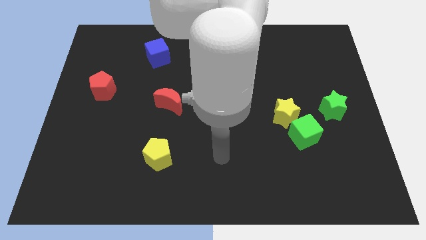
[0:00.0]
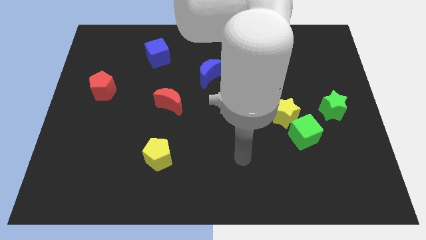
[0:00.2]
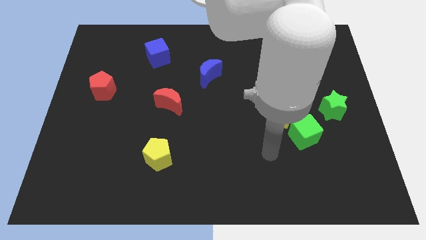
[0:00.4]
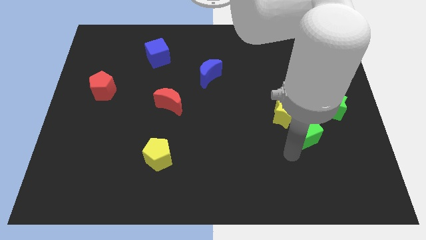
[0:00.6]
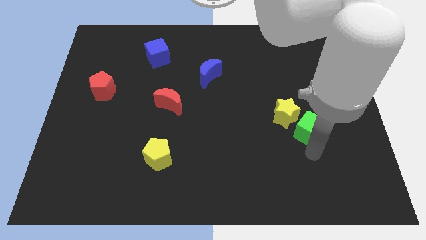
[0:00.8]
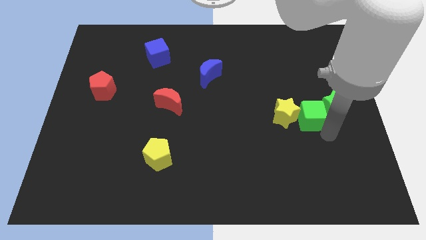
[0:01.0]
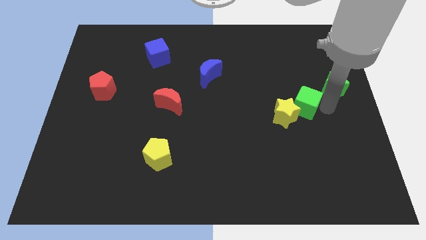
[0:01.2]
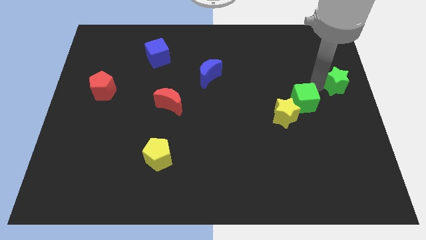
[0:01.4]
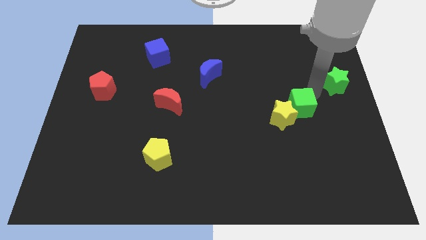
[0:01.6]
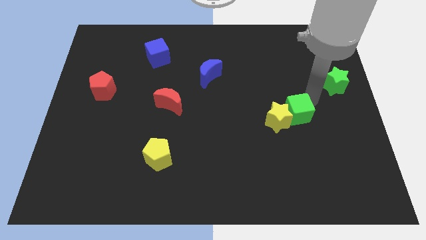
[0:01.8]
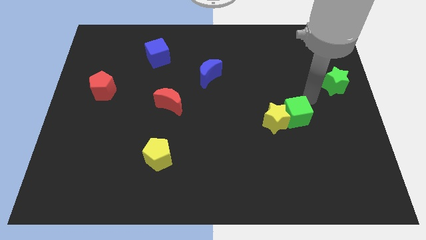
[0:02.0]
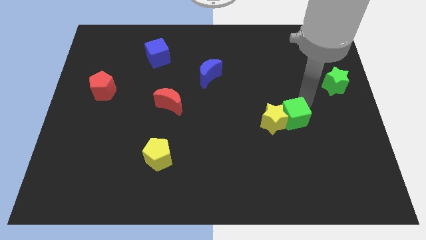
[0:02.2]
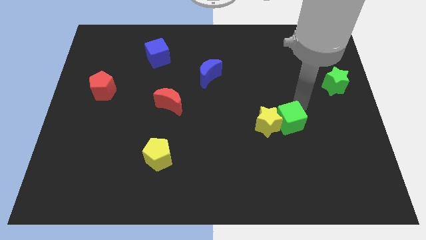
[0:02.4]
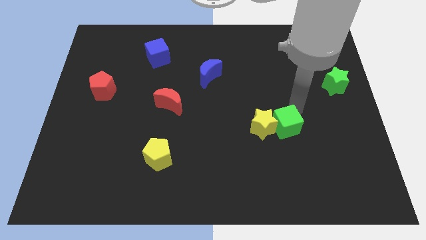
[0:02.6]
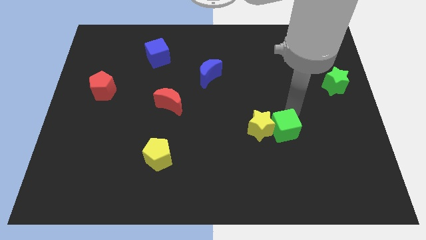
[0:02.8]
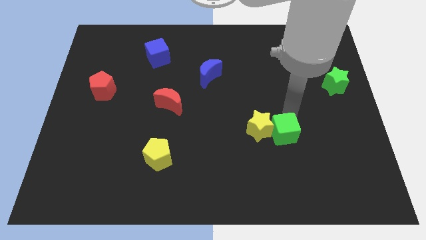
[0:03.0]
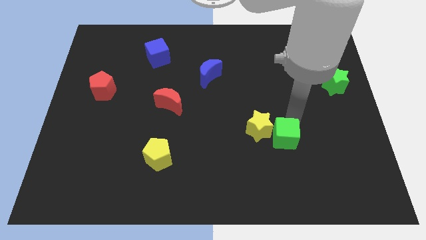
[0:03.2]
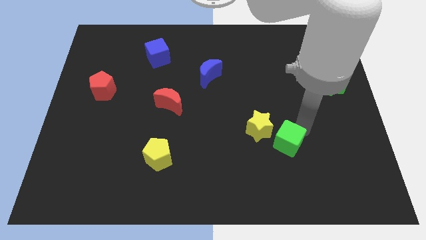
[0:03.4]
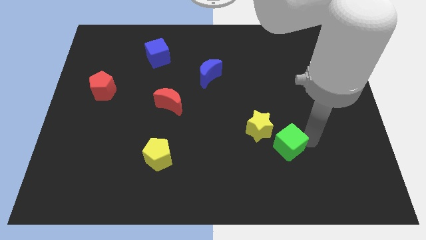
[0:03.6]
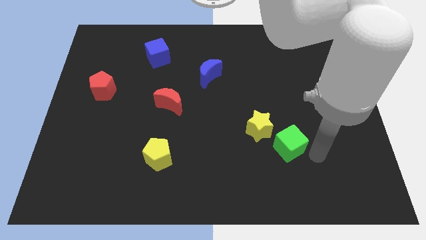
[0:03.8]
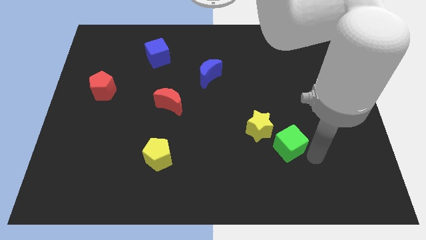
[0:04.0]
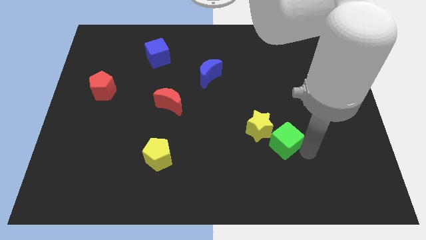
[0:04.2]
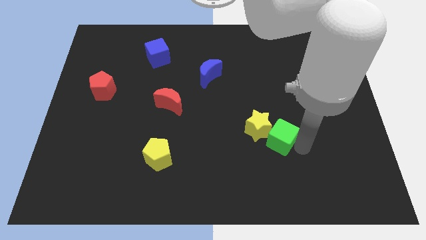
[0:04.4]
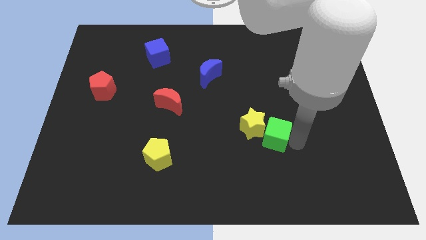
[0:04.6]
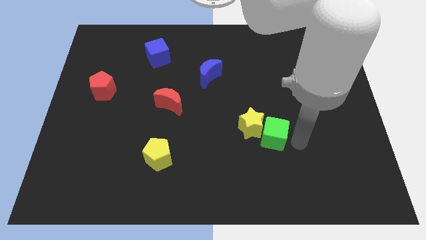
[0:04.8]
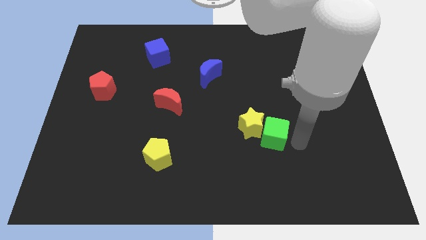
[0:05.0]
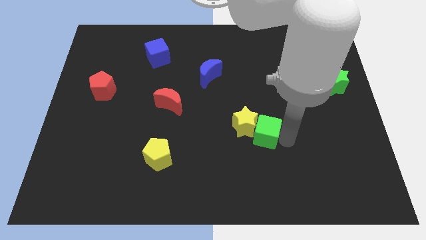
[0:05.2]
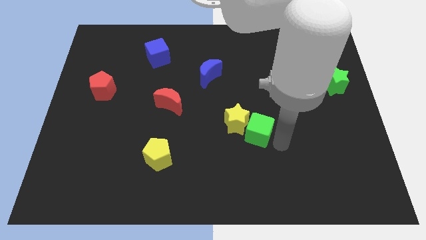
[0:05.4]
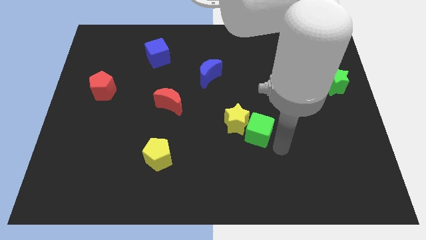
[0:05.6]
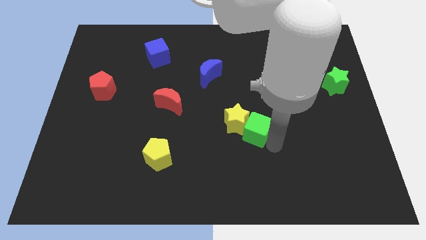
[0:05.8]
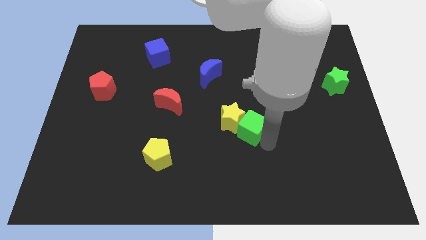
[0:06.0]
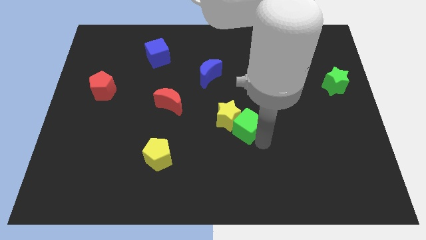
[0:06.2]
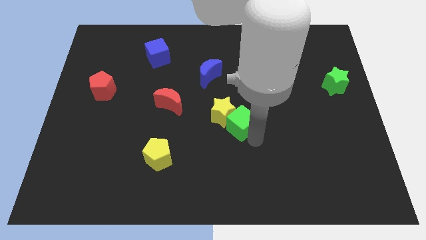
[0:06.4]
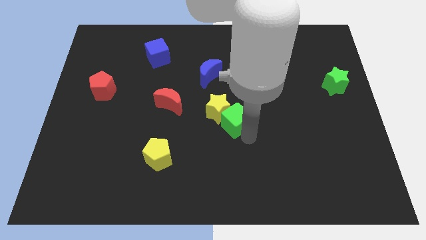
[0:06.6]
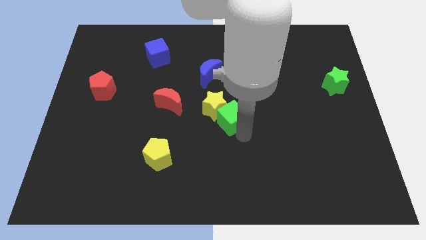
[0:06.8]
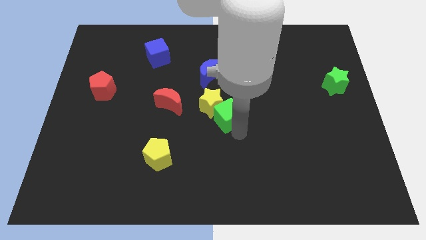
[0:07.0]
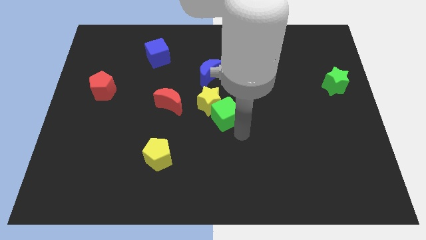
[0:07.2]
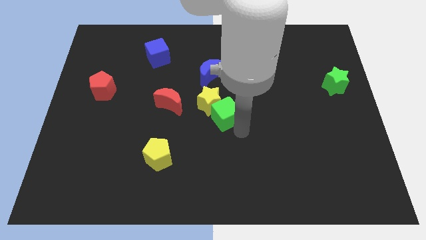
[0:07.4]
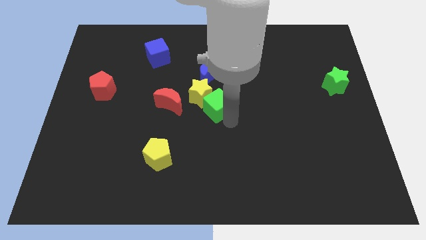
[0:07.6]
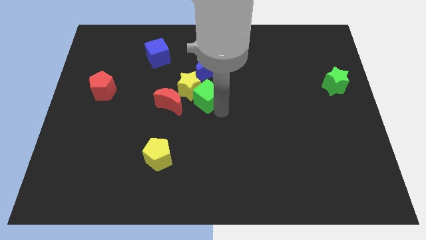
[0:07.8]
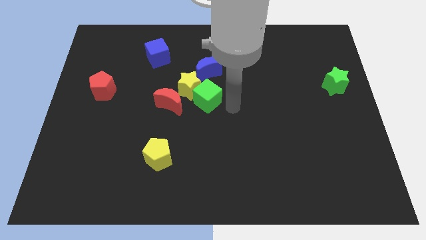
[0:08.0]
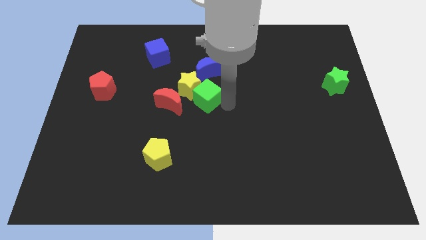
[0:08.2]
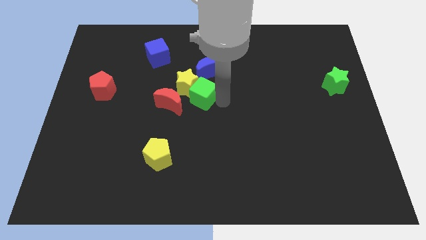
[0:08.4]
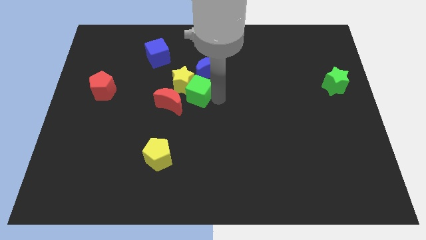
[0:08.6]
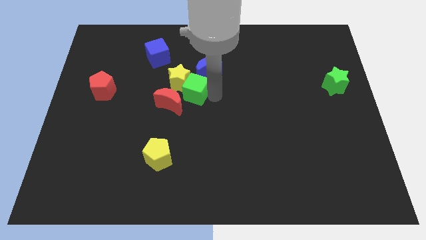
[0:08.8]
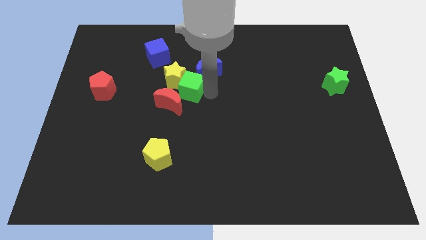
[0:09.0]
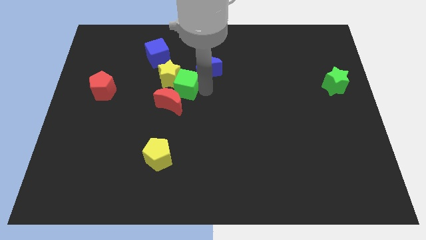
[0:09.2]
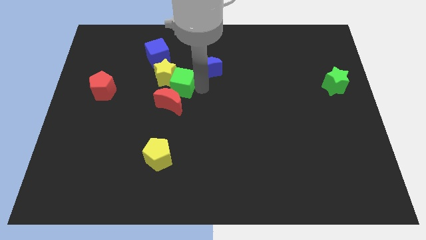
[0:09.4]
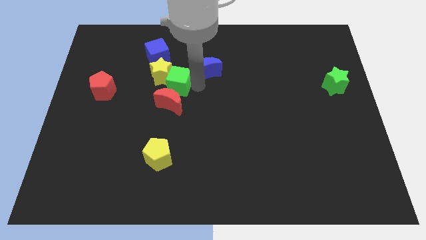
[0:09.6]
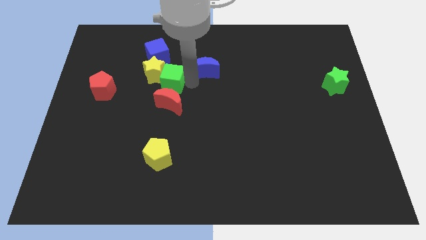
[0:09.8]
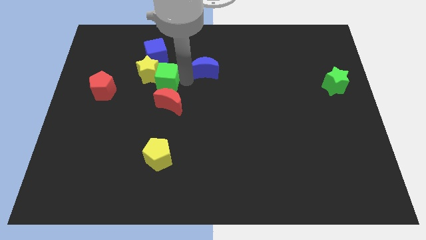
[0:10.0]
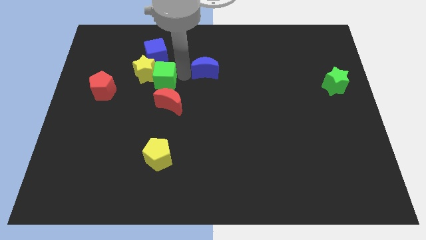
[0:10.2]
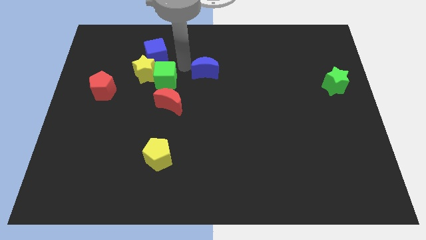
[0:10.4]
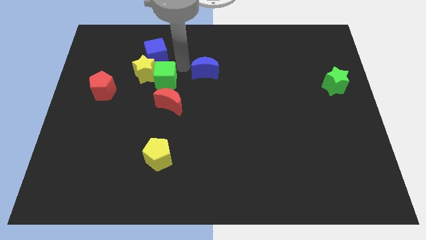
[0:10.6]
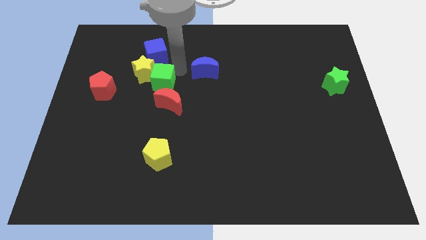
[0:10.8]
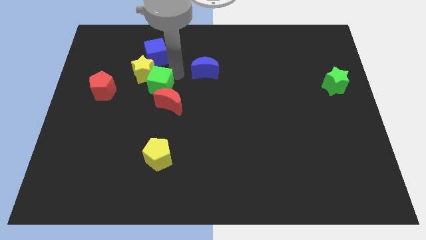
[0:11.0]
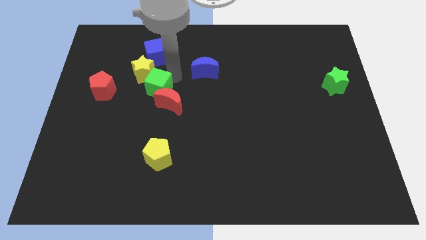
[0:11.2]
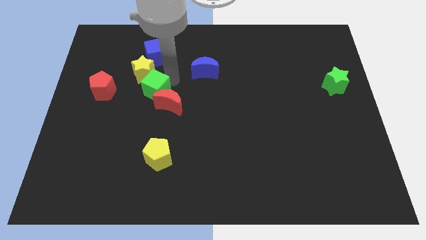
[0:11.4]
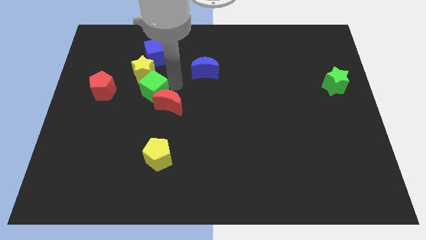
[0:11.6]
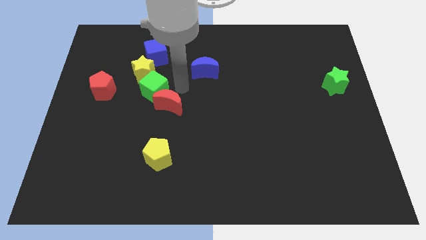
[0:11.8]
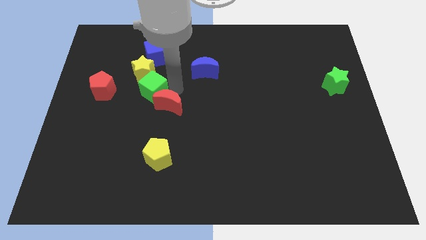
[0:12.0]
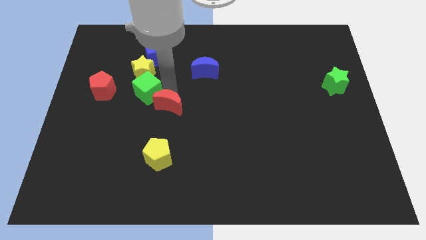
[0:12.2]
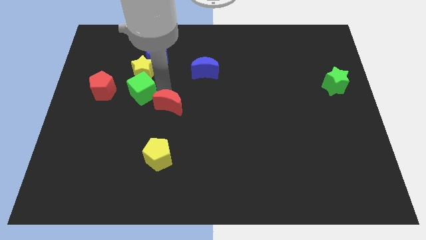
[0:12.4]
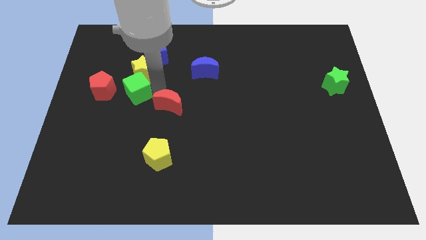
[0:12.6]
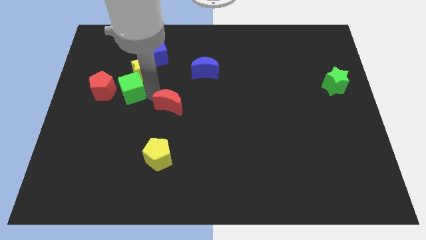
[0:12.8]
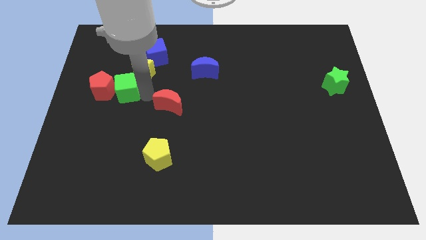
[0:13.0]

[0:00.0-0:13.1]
slide the green cube next to the red pentagon
